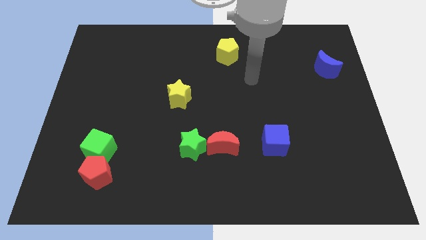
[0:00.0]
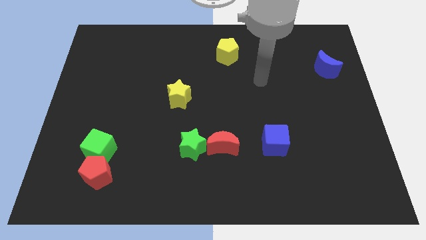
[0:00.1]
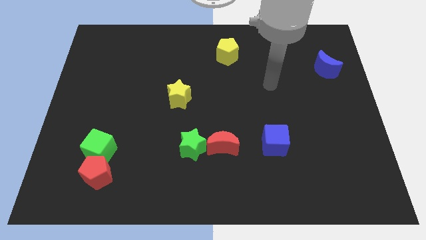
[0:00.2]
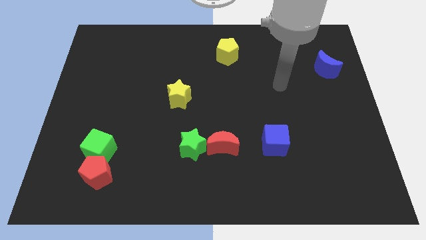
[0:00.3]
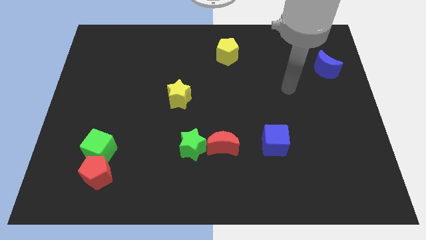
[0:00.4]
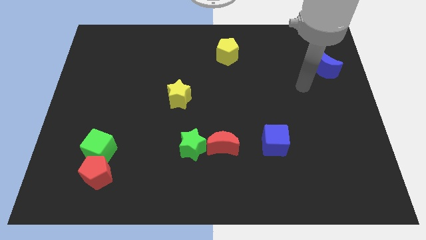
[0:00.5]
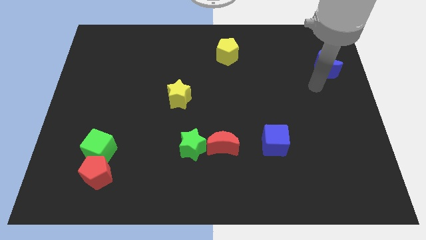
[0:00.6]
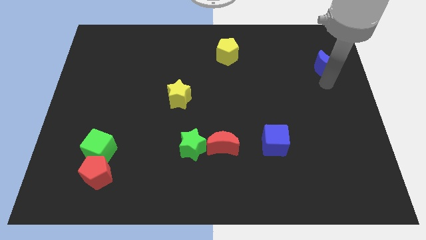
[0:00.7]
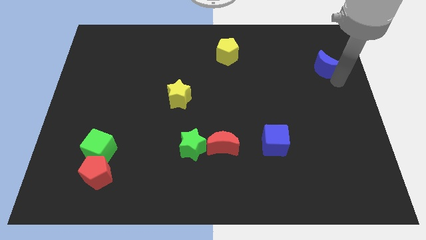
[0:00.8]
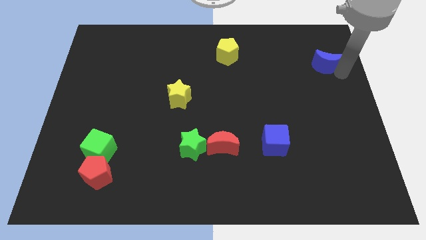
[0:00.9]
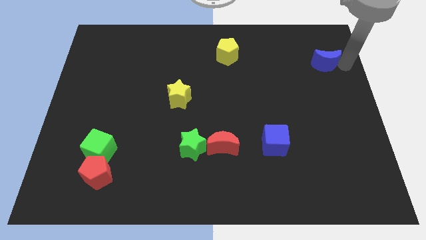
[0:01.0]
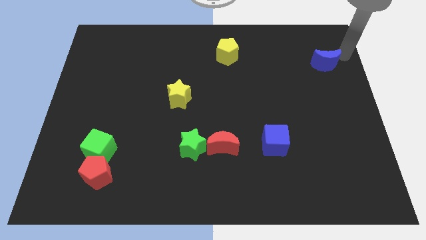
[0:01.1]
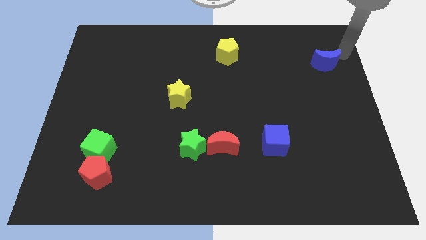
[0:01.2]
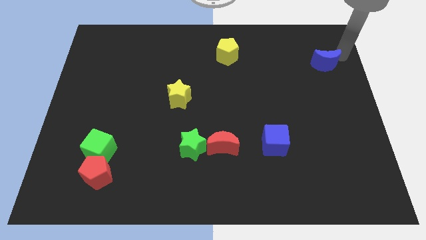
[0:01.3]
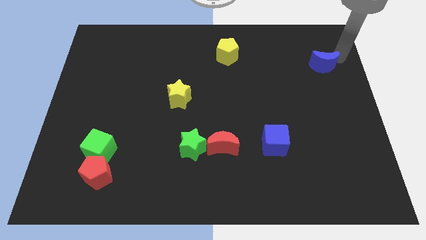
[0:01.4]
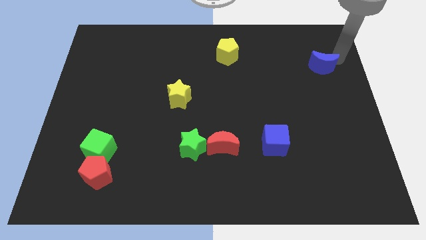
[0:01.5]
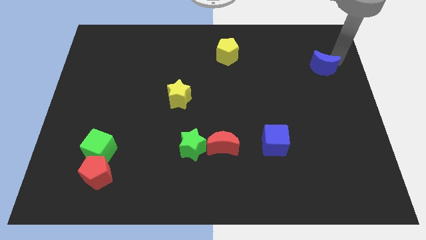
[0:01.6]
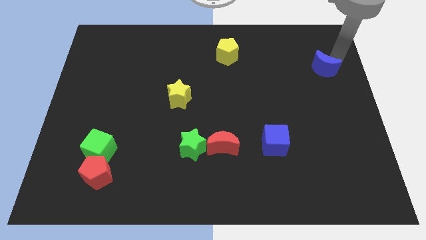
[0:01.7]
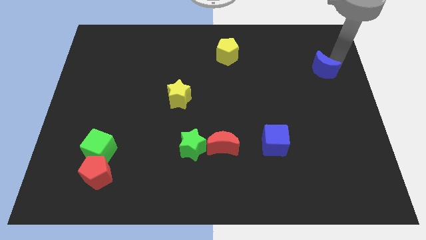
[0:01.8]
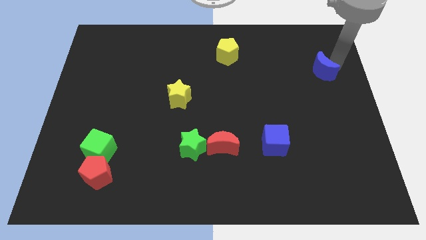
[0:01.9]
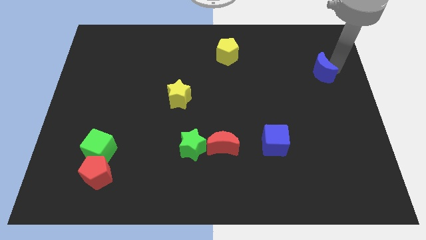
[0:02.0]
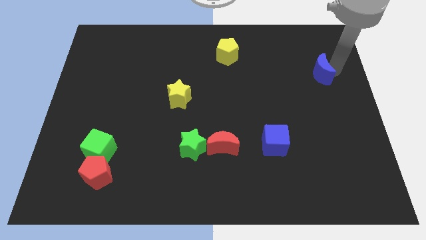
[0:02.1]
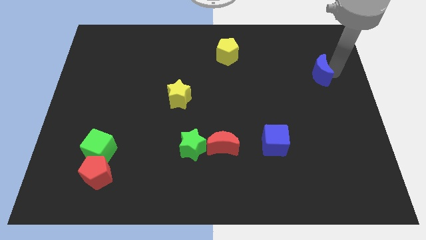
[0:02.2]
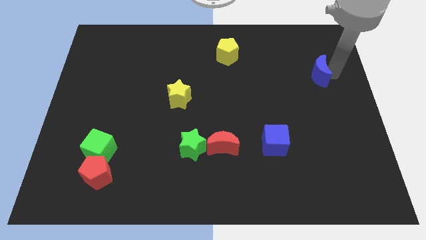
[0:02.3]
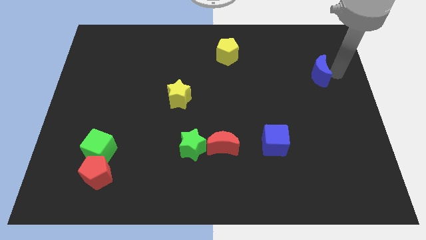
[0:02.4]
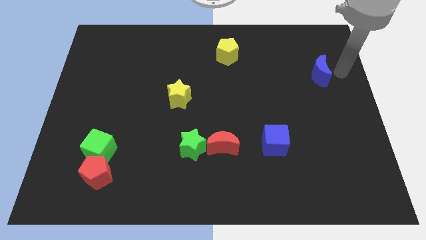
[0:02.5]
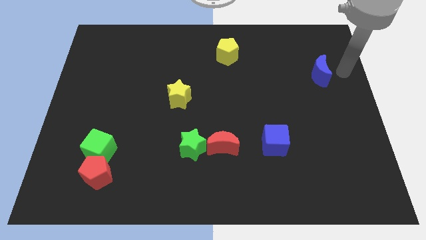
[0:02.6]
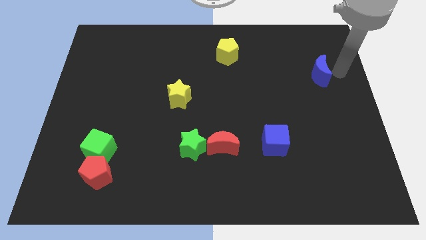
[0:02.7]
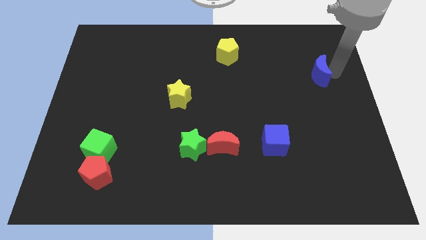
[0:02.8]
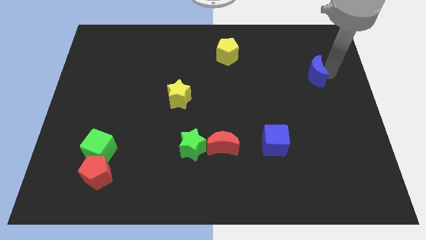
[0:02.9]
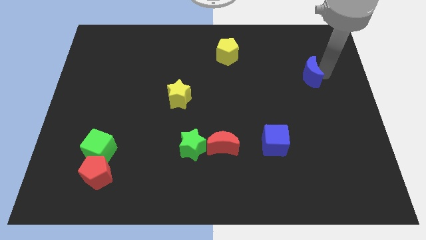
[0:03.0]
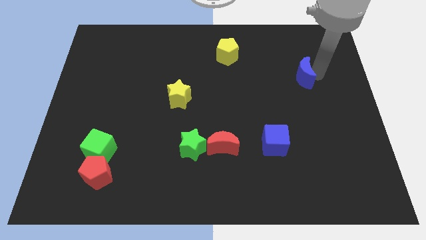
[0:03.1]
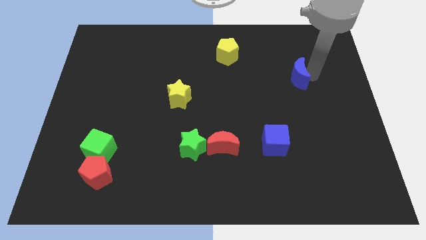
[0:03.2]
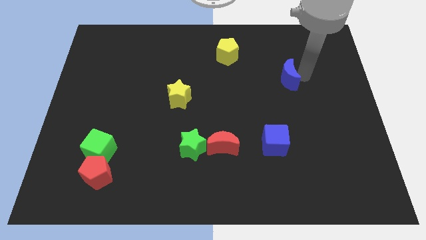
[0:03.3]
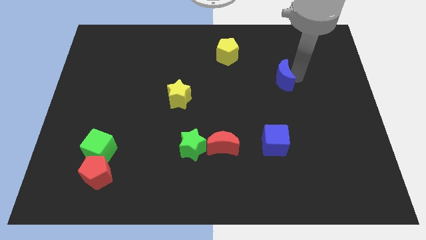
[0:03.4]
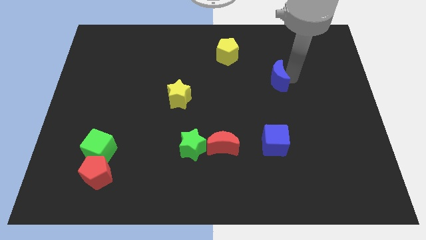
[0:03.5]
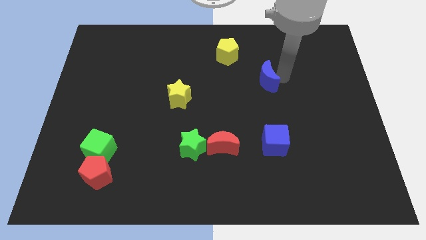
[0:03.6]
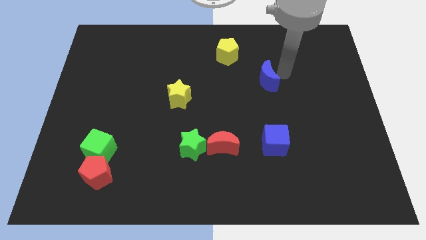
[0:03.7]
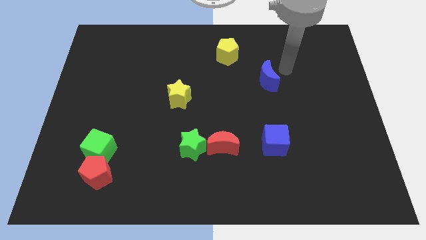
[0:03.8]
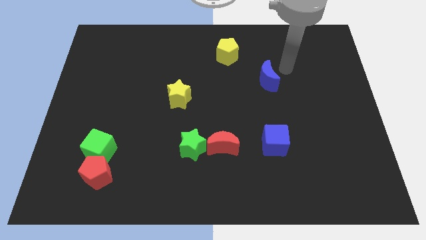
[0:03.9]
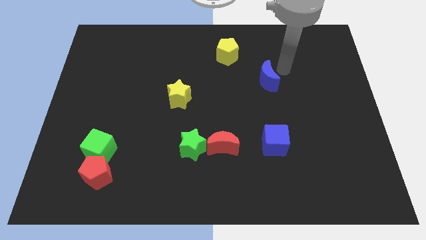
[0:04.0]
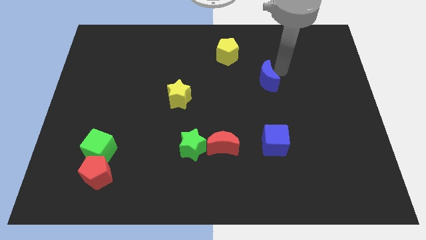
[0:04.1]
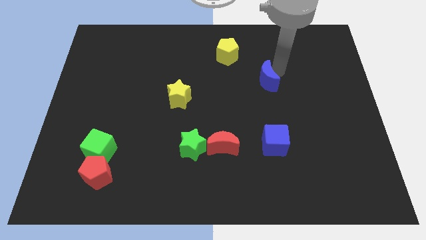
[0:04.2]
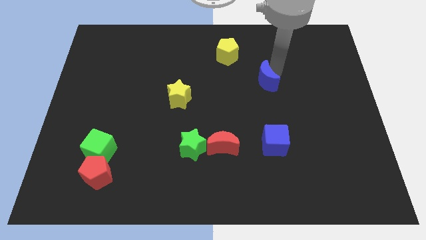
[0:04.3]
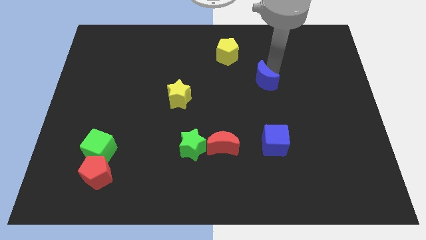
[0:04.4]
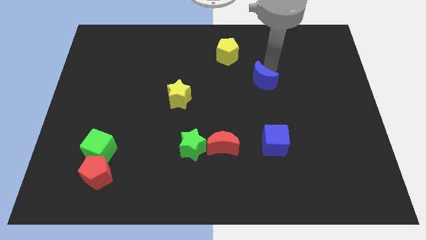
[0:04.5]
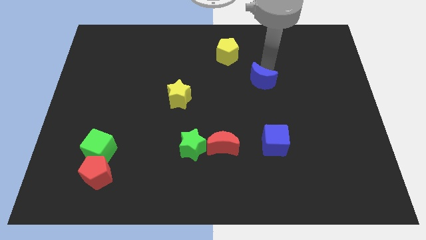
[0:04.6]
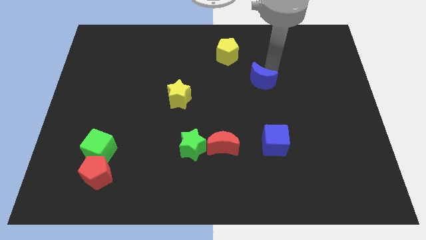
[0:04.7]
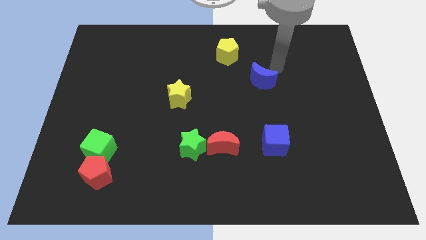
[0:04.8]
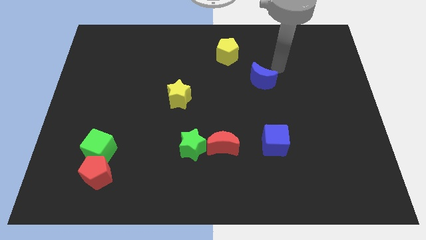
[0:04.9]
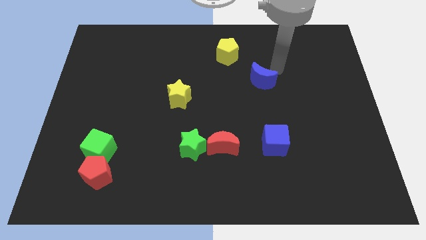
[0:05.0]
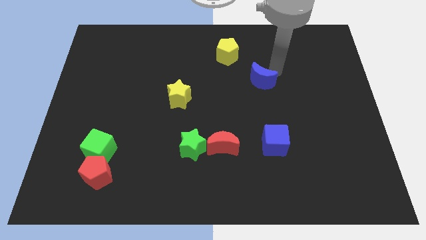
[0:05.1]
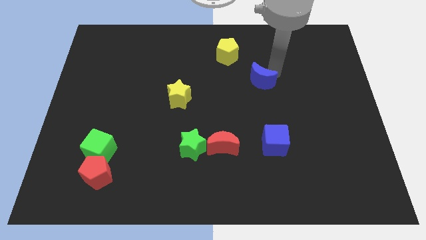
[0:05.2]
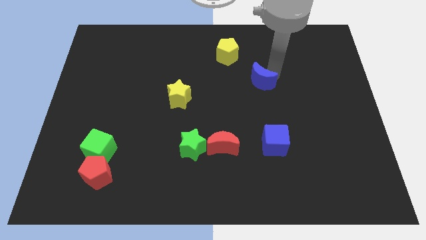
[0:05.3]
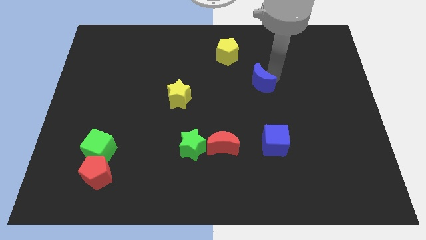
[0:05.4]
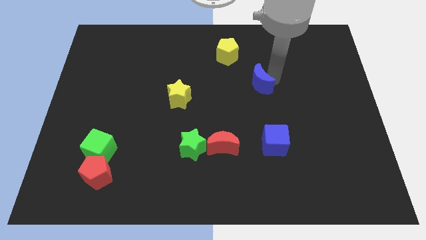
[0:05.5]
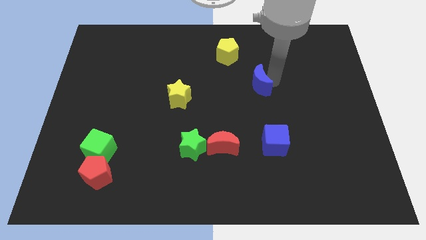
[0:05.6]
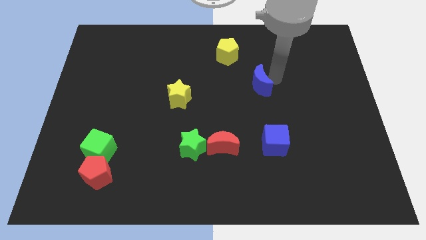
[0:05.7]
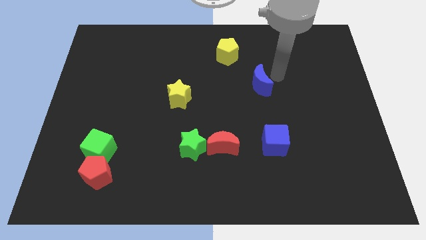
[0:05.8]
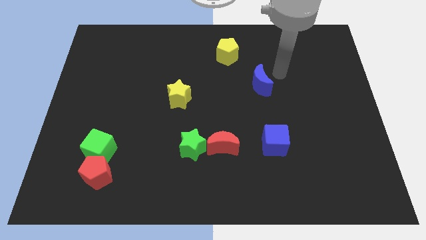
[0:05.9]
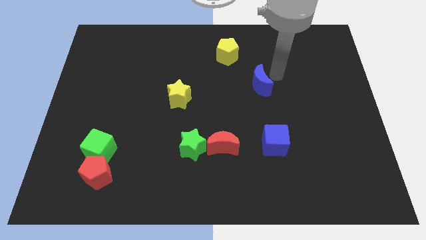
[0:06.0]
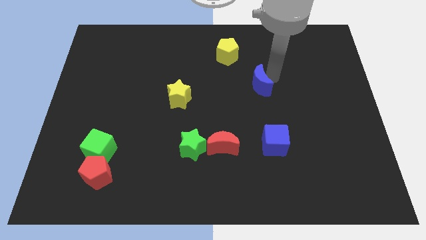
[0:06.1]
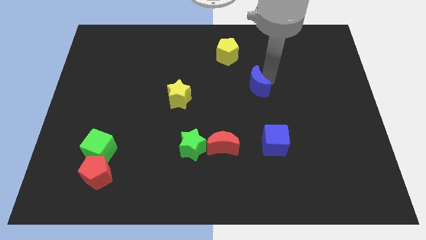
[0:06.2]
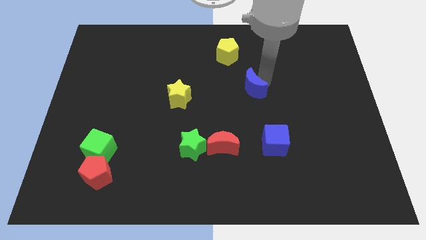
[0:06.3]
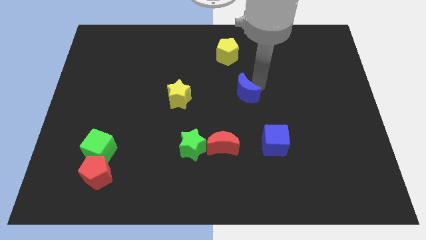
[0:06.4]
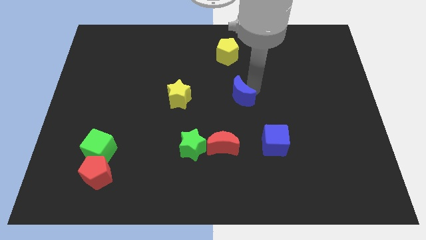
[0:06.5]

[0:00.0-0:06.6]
push the blue moon right of the yellow star
